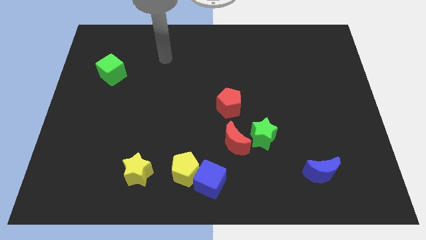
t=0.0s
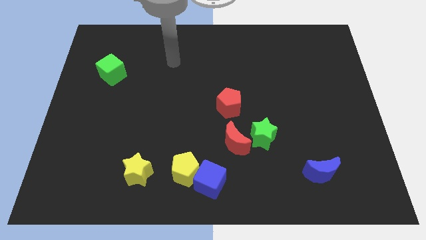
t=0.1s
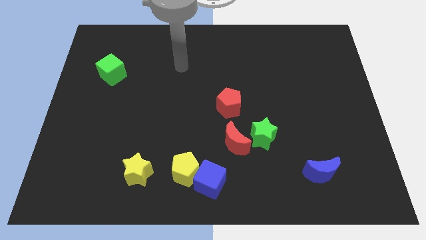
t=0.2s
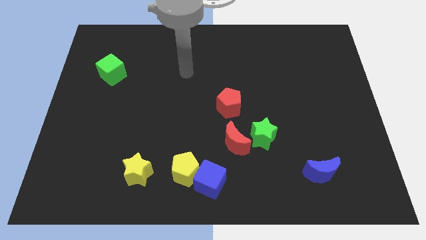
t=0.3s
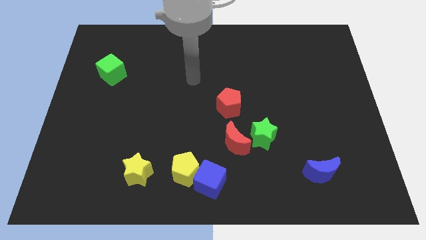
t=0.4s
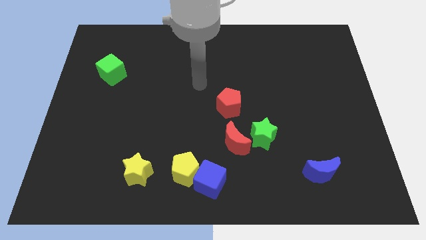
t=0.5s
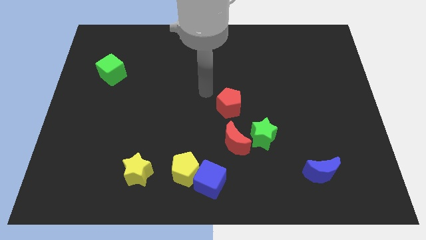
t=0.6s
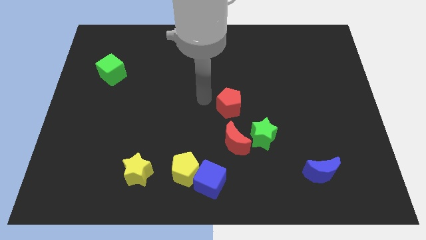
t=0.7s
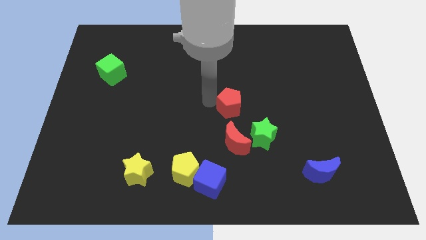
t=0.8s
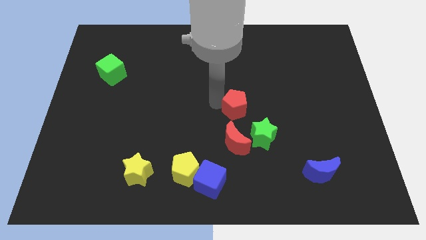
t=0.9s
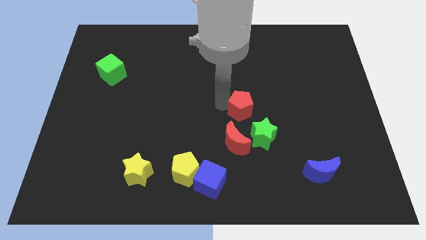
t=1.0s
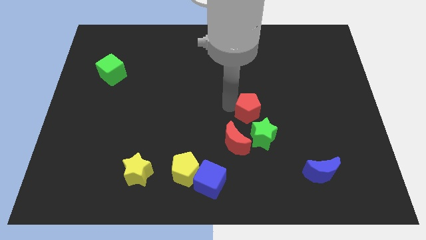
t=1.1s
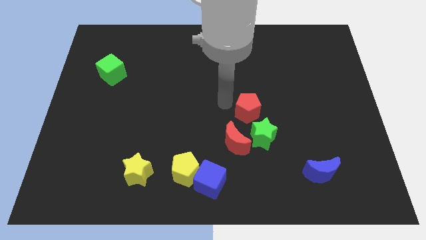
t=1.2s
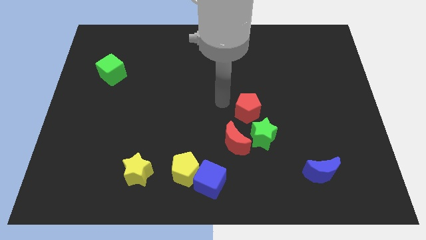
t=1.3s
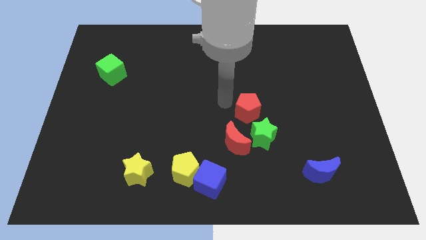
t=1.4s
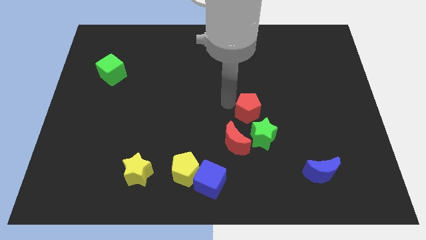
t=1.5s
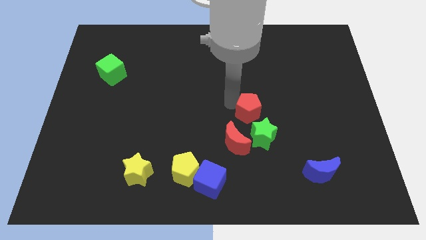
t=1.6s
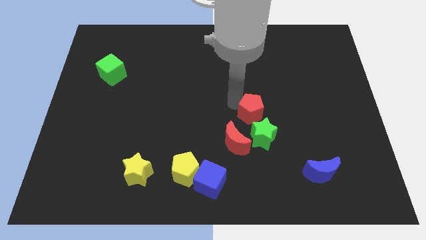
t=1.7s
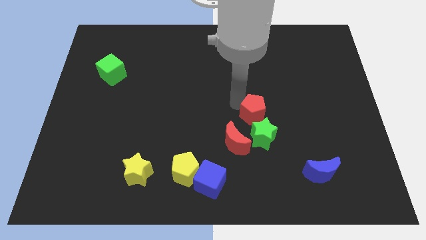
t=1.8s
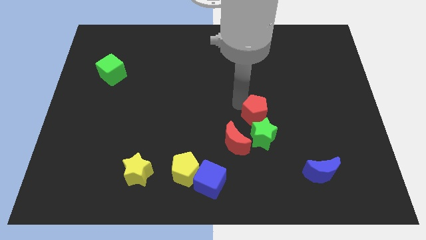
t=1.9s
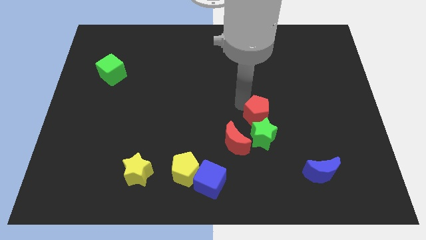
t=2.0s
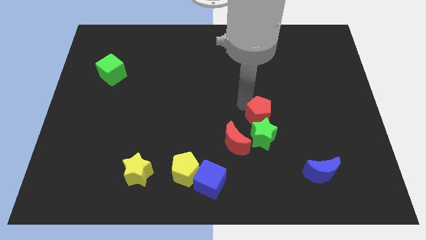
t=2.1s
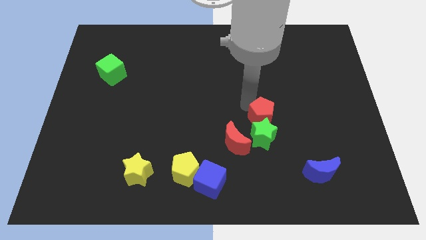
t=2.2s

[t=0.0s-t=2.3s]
move the red pentagon downwards and to the right a little bit

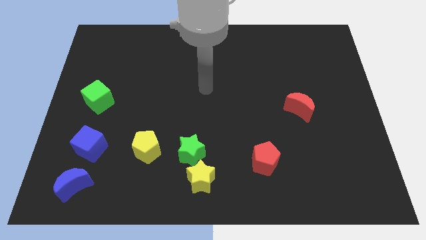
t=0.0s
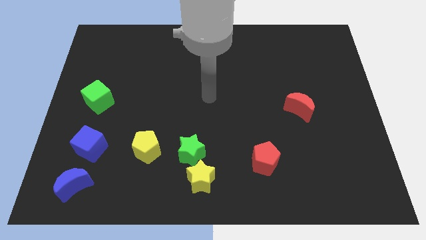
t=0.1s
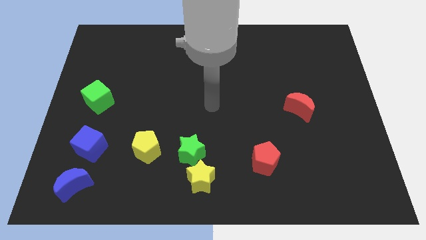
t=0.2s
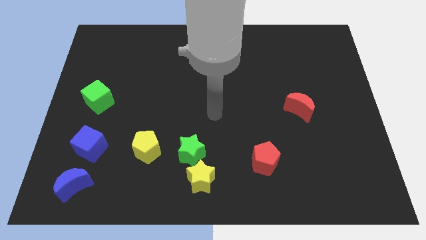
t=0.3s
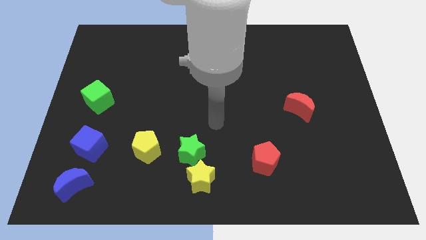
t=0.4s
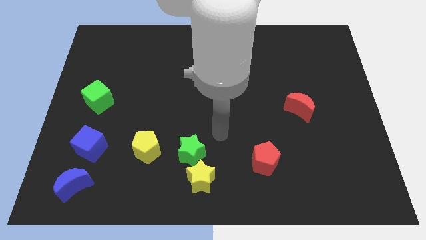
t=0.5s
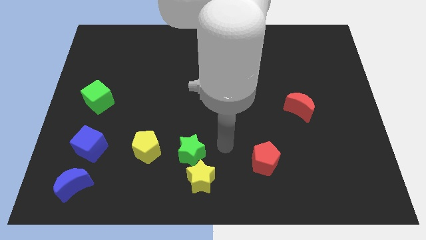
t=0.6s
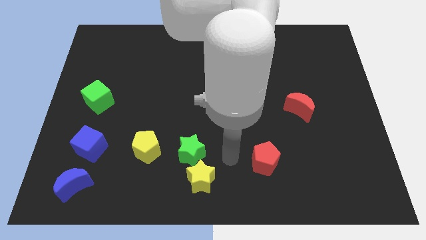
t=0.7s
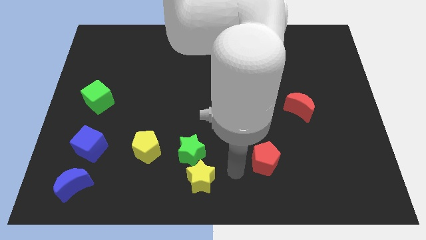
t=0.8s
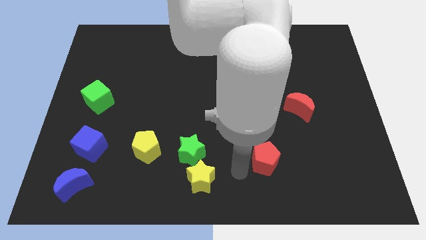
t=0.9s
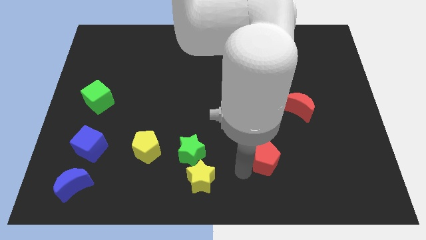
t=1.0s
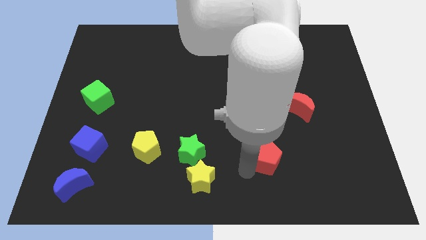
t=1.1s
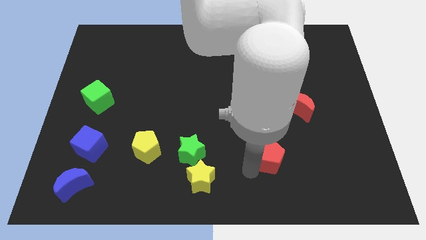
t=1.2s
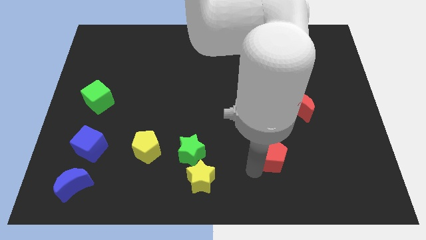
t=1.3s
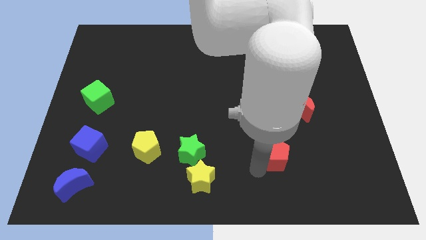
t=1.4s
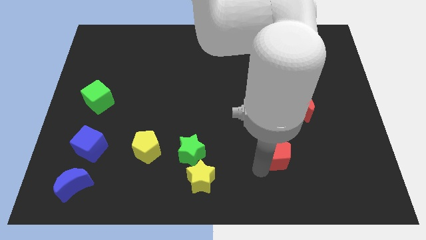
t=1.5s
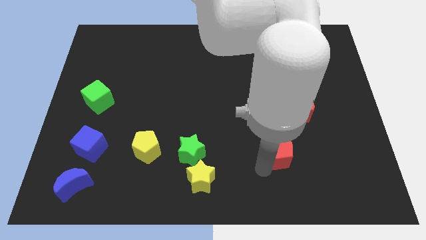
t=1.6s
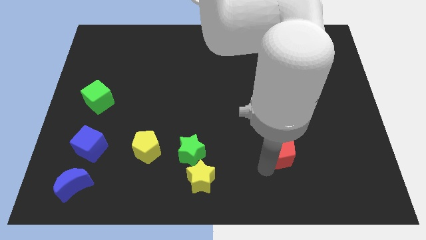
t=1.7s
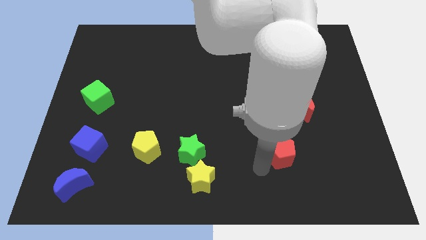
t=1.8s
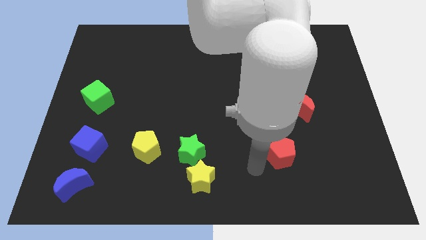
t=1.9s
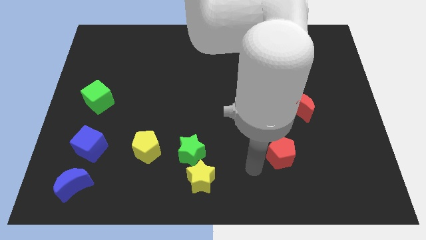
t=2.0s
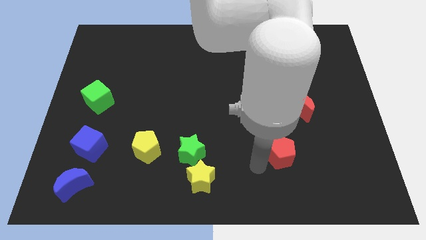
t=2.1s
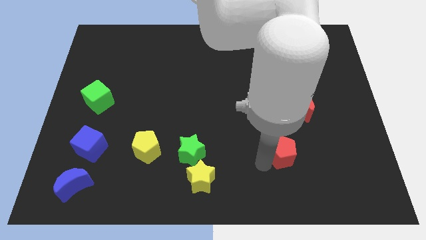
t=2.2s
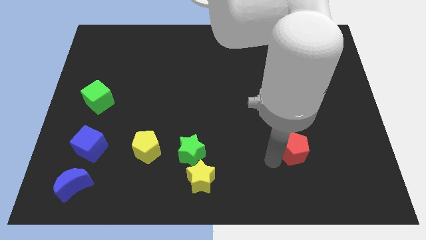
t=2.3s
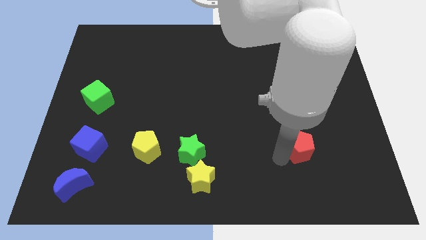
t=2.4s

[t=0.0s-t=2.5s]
slightly slide the red pentagon diagonally upwards and right

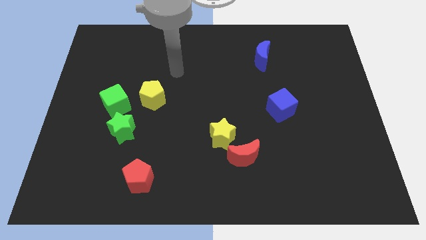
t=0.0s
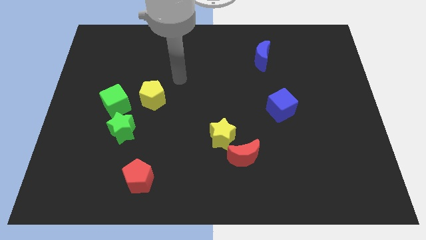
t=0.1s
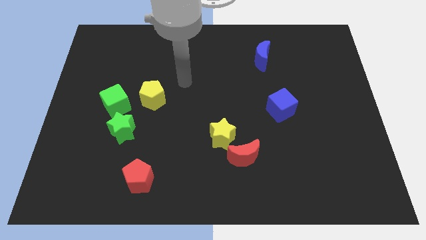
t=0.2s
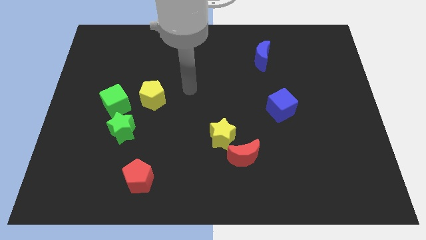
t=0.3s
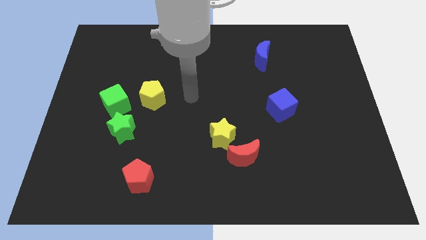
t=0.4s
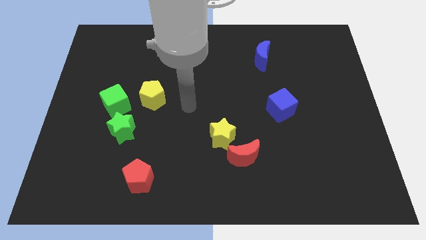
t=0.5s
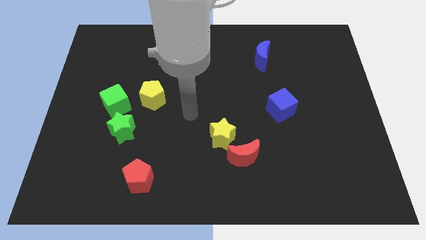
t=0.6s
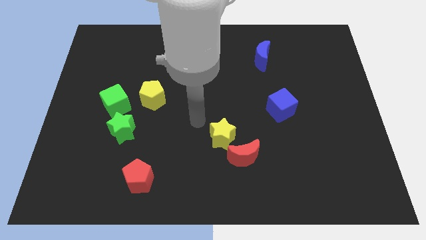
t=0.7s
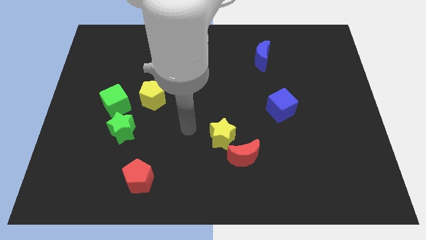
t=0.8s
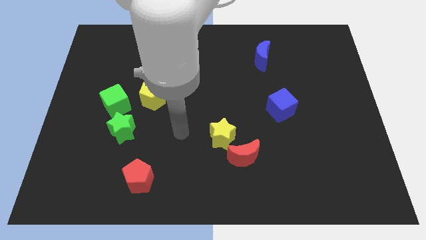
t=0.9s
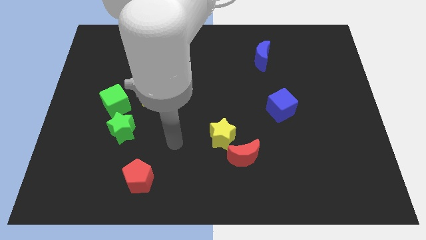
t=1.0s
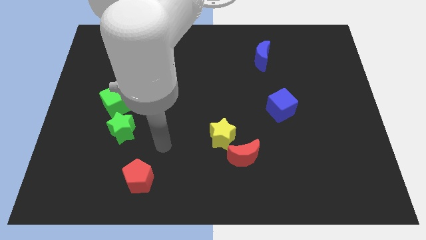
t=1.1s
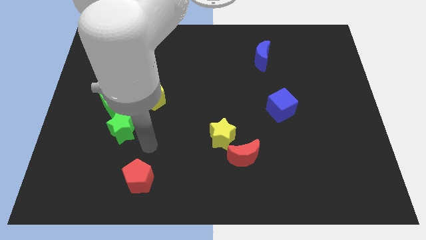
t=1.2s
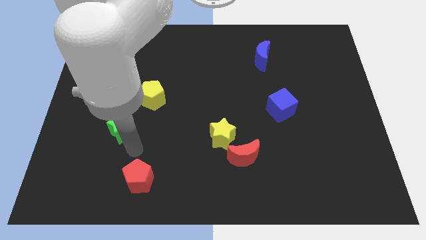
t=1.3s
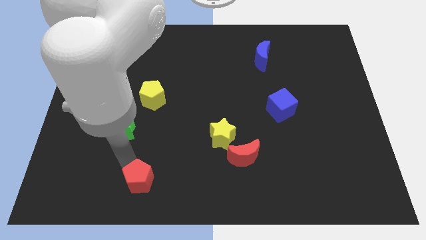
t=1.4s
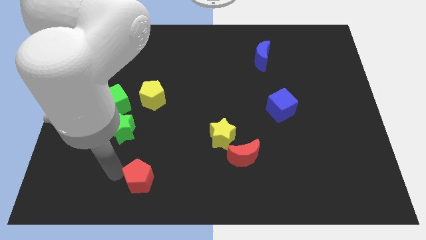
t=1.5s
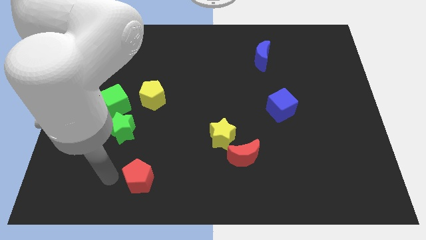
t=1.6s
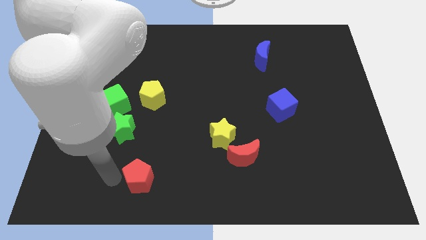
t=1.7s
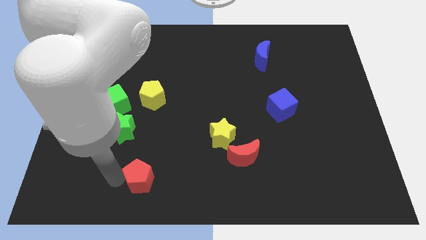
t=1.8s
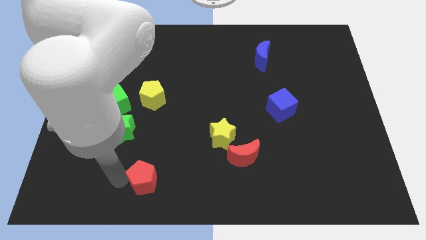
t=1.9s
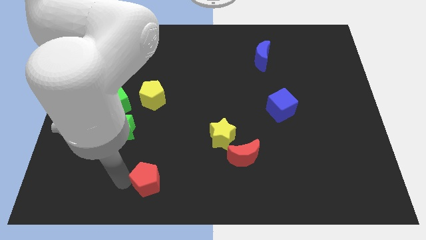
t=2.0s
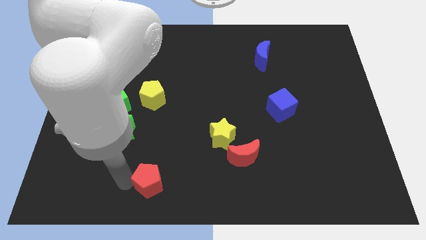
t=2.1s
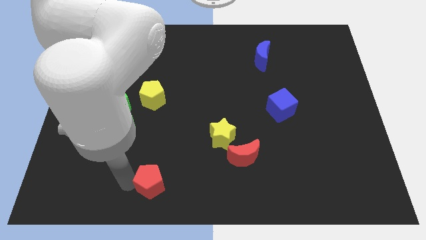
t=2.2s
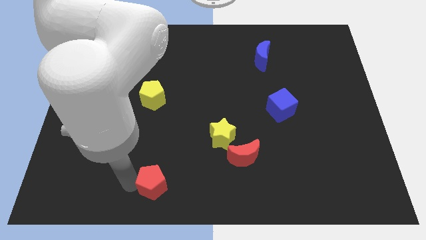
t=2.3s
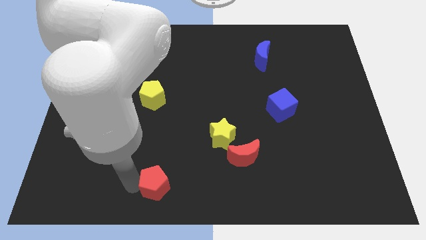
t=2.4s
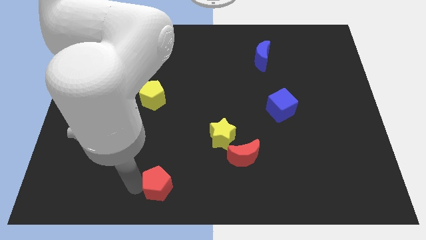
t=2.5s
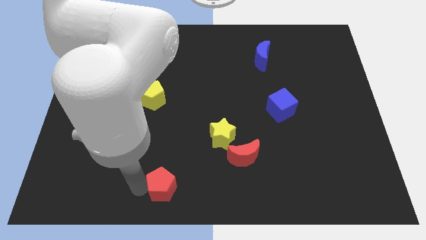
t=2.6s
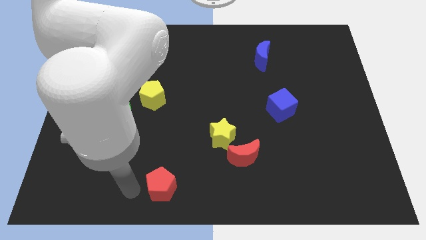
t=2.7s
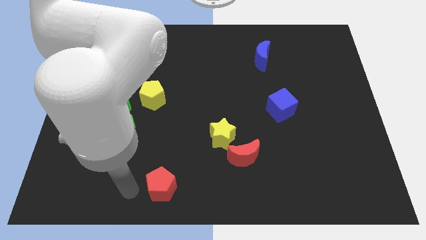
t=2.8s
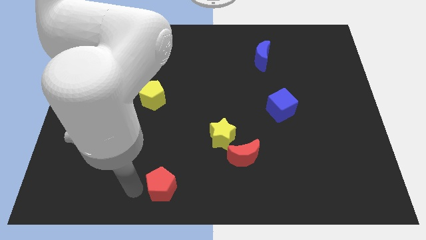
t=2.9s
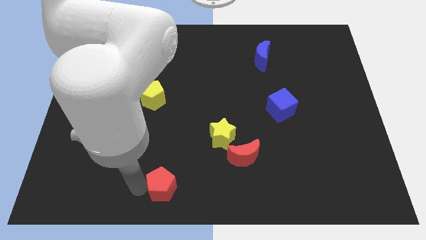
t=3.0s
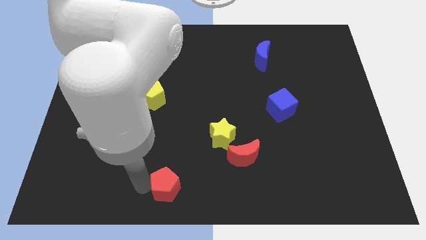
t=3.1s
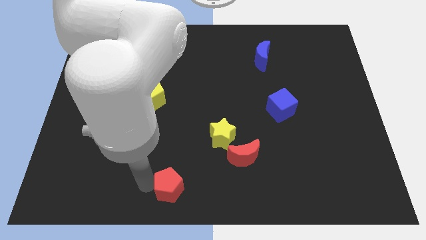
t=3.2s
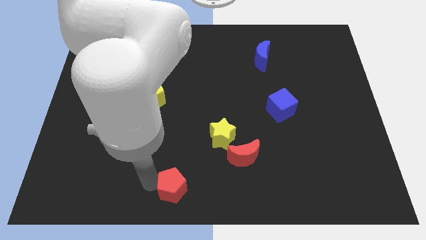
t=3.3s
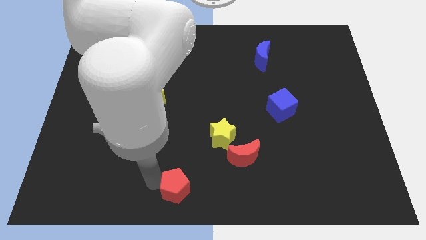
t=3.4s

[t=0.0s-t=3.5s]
slightly move the red pentagon to the right
